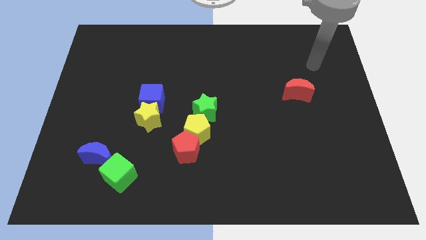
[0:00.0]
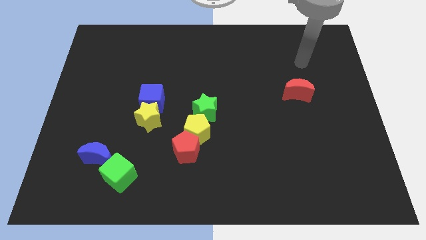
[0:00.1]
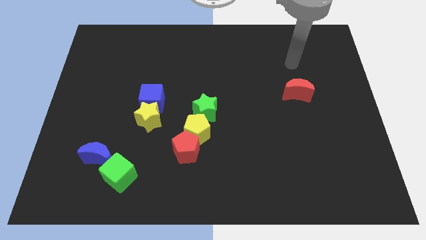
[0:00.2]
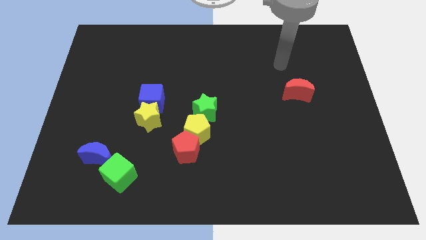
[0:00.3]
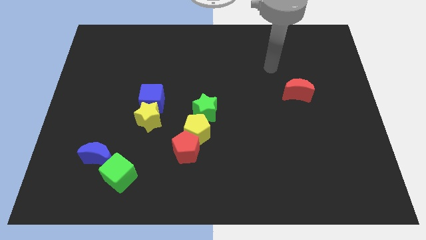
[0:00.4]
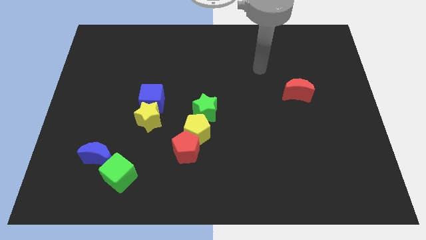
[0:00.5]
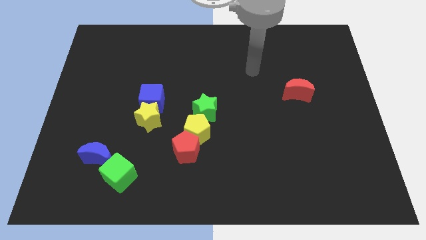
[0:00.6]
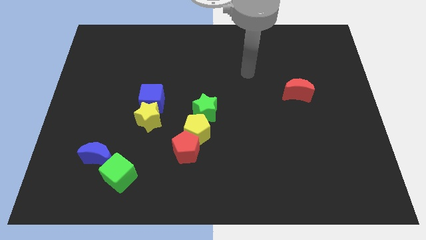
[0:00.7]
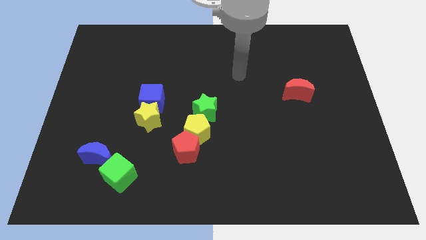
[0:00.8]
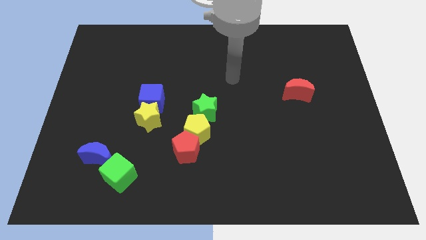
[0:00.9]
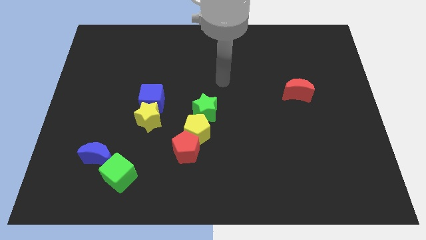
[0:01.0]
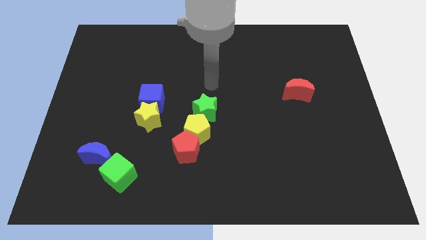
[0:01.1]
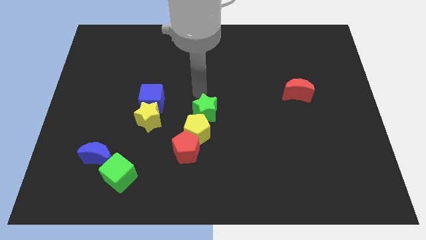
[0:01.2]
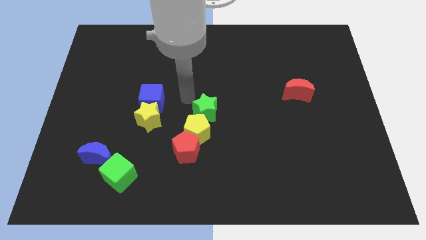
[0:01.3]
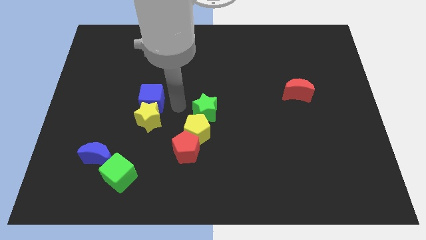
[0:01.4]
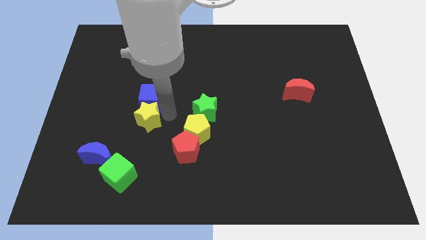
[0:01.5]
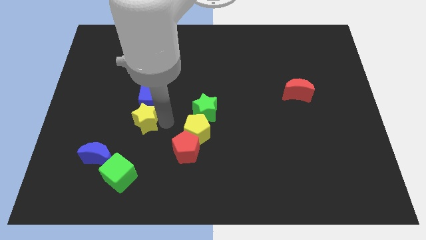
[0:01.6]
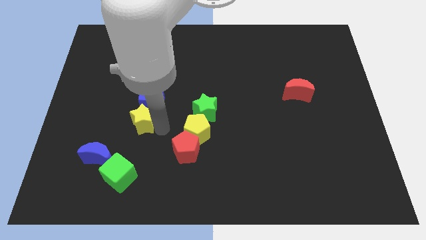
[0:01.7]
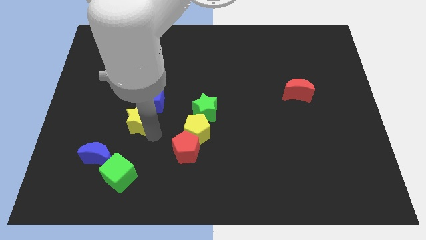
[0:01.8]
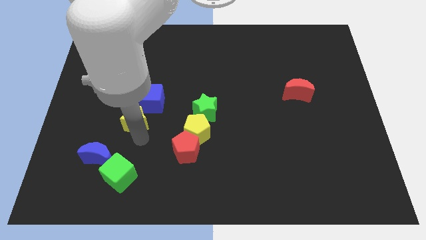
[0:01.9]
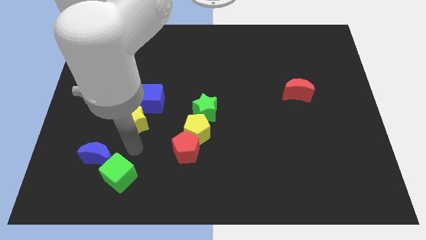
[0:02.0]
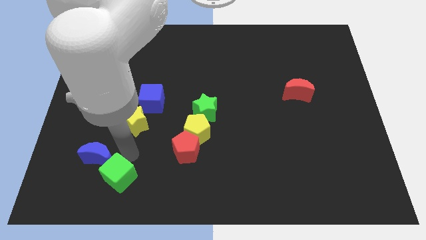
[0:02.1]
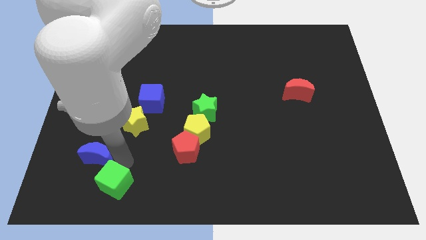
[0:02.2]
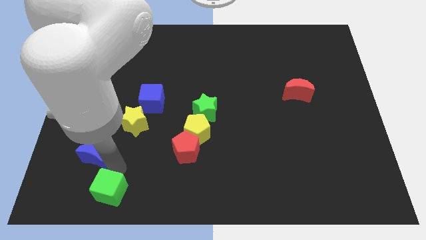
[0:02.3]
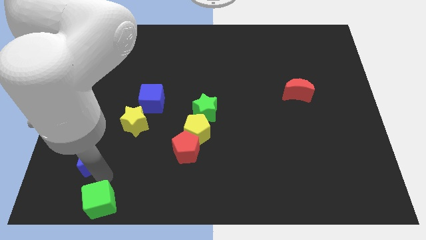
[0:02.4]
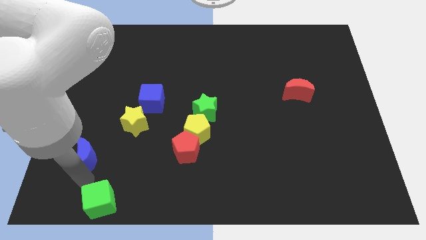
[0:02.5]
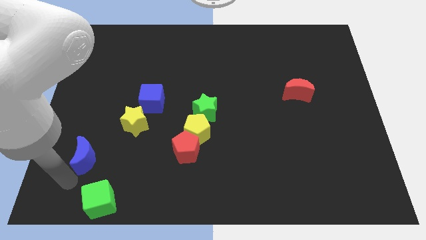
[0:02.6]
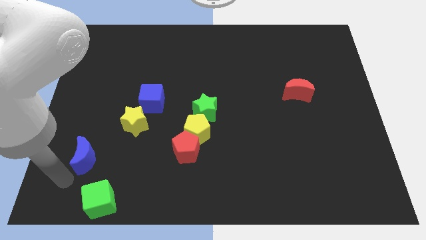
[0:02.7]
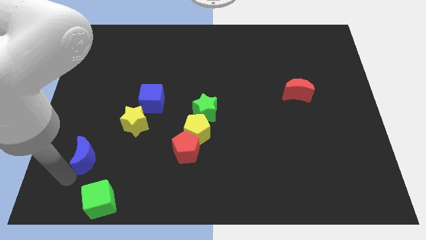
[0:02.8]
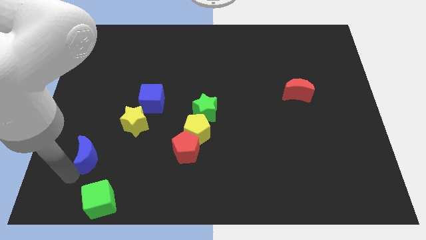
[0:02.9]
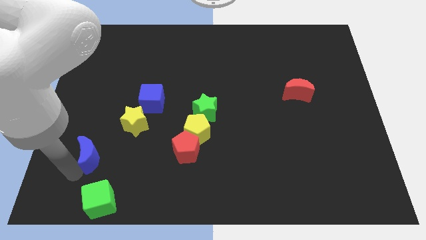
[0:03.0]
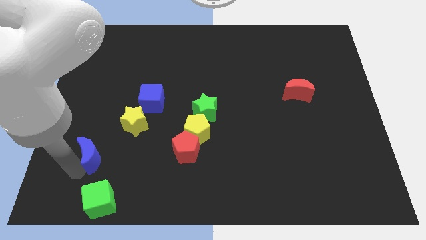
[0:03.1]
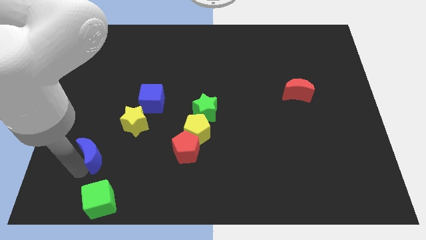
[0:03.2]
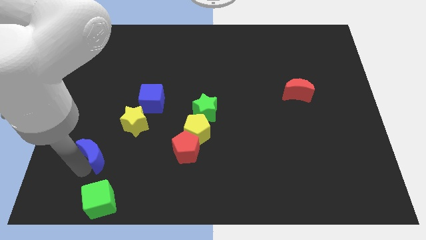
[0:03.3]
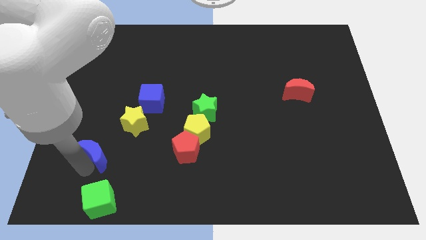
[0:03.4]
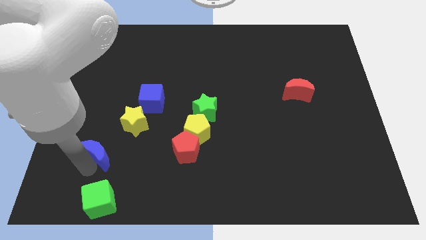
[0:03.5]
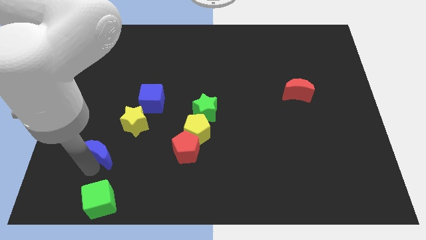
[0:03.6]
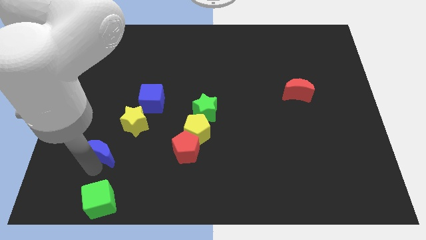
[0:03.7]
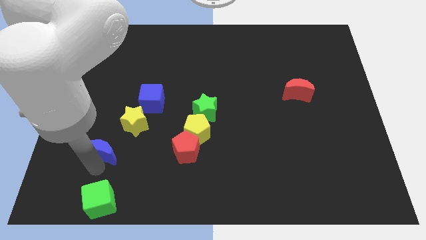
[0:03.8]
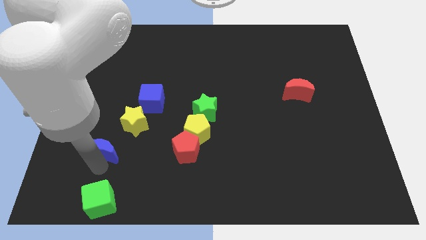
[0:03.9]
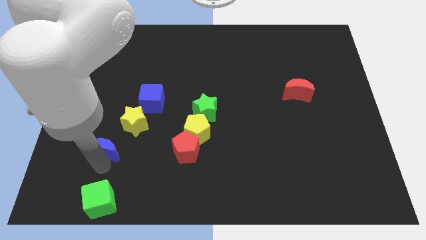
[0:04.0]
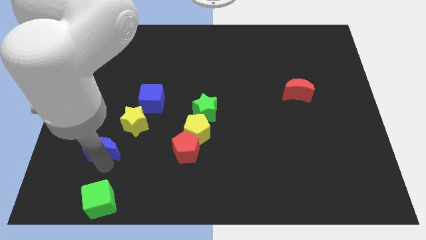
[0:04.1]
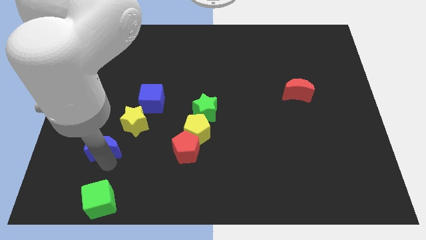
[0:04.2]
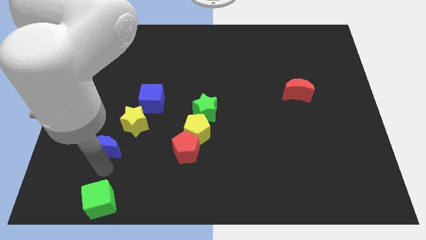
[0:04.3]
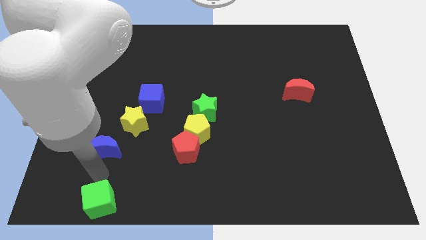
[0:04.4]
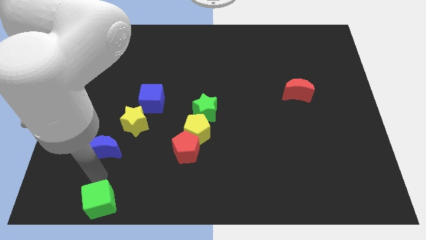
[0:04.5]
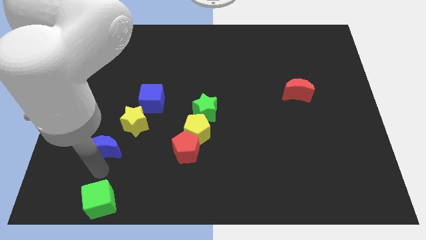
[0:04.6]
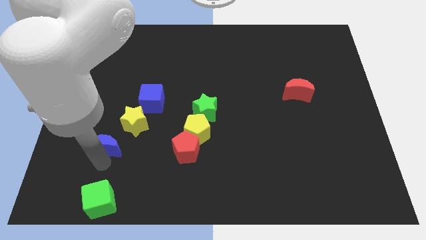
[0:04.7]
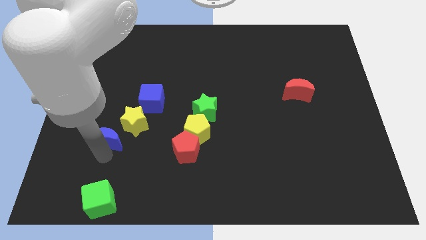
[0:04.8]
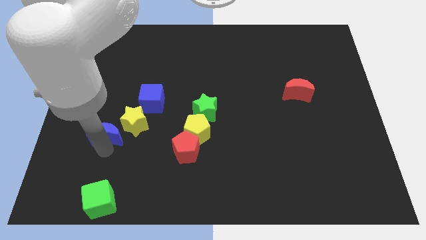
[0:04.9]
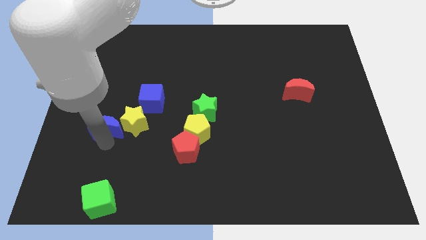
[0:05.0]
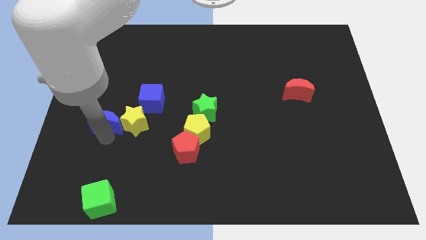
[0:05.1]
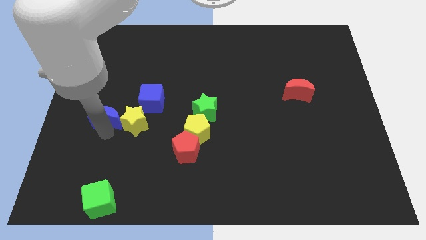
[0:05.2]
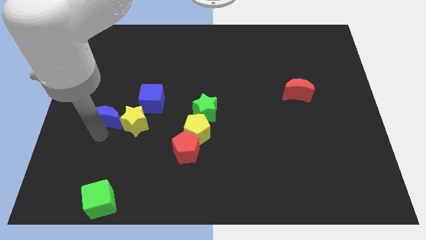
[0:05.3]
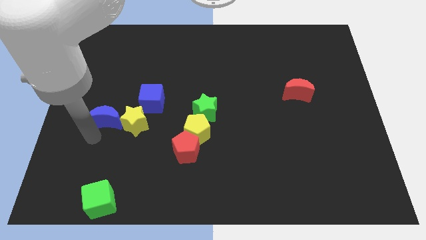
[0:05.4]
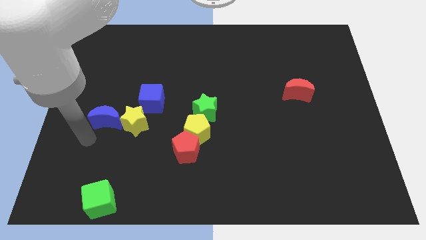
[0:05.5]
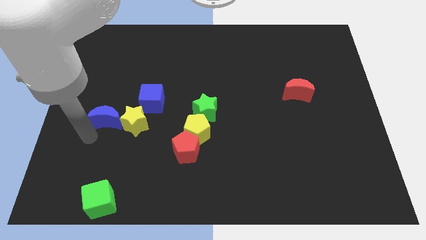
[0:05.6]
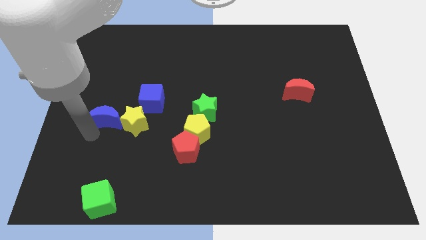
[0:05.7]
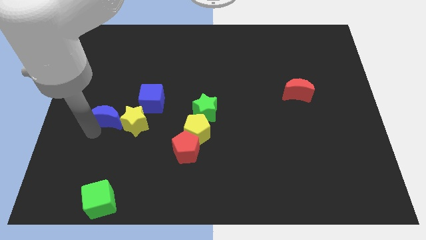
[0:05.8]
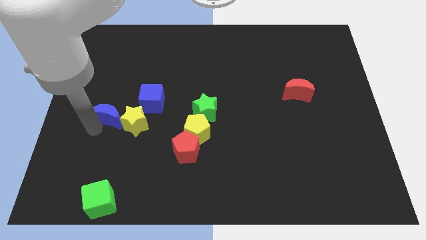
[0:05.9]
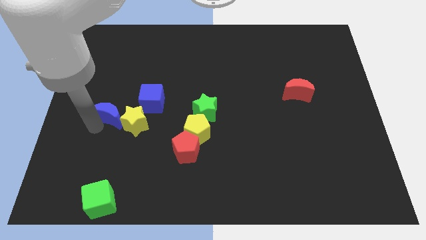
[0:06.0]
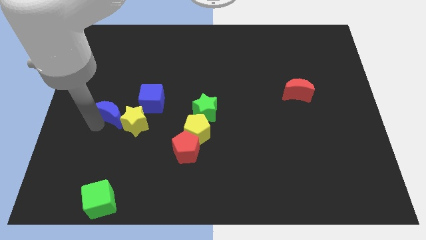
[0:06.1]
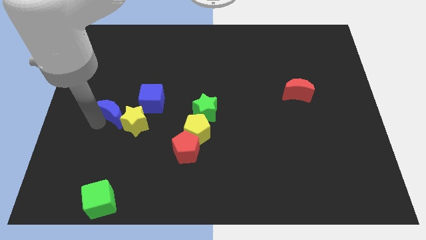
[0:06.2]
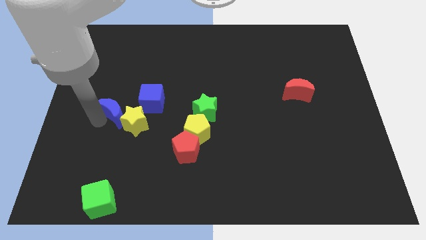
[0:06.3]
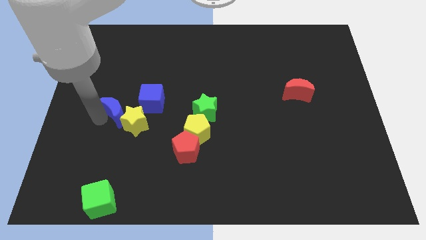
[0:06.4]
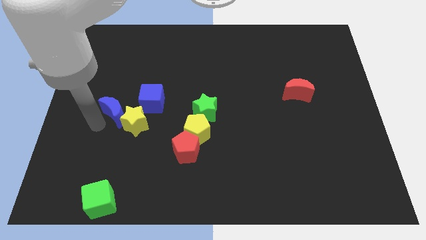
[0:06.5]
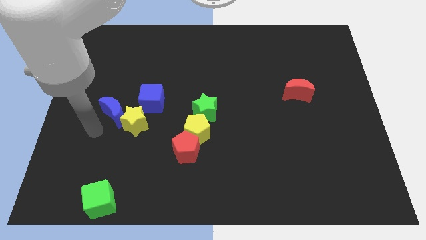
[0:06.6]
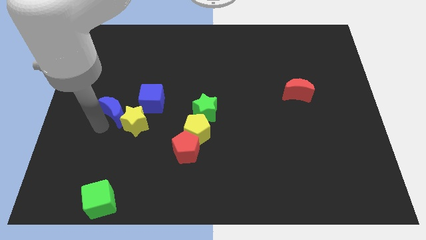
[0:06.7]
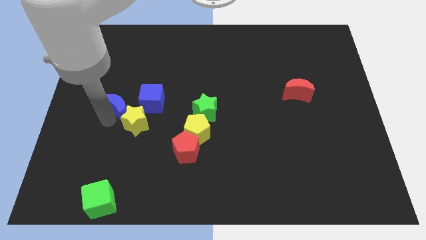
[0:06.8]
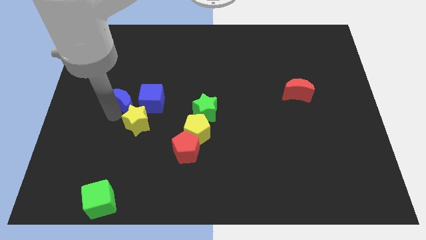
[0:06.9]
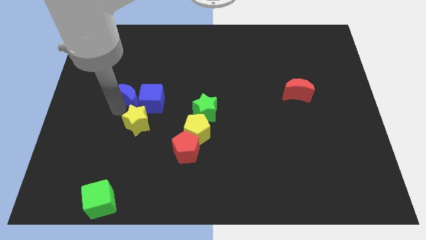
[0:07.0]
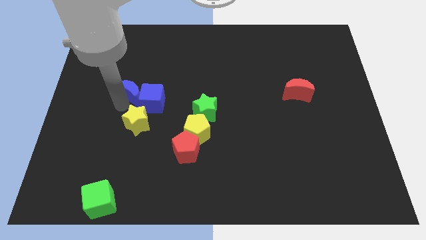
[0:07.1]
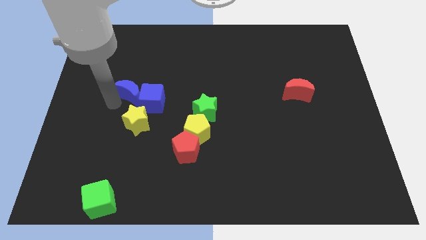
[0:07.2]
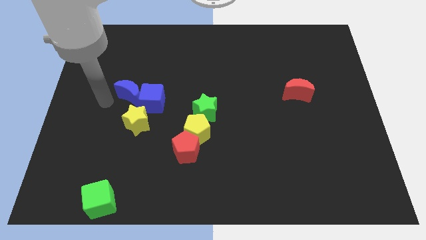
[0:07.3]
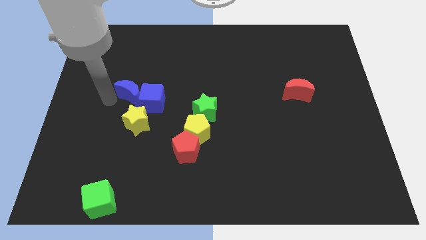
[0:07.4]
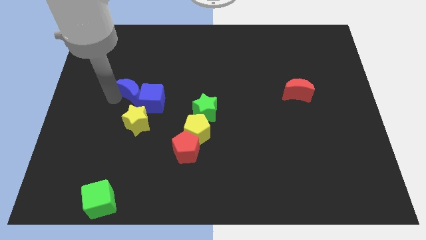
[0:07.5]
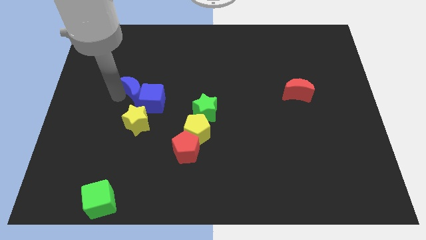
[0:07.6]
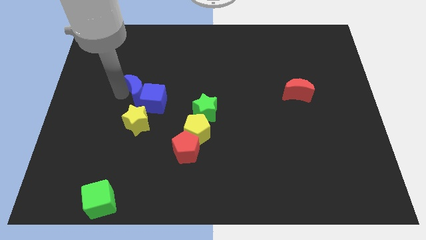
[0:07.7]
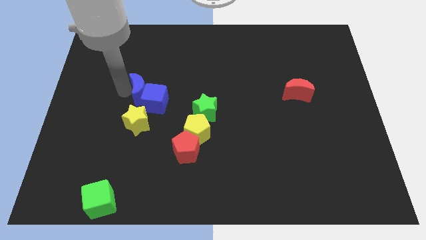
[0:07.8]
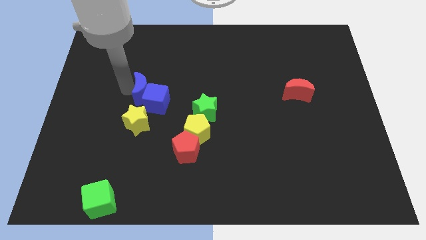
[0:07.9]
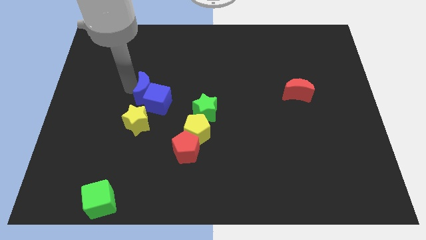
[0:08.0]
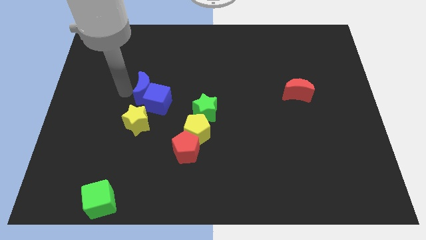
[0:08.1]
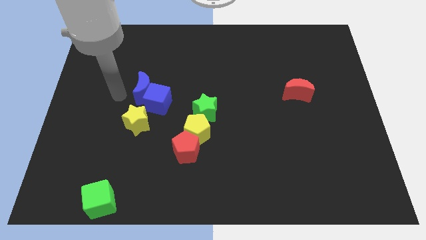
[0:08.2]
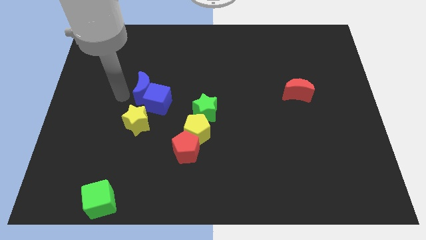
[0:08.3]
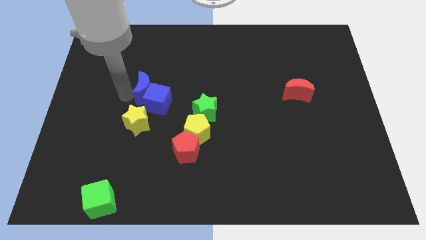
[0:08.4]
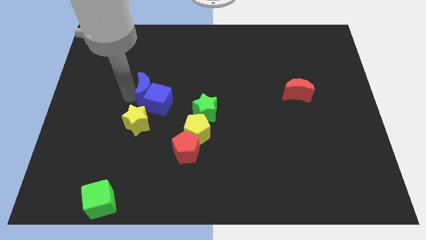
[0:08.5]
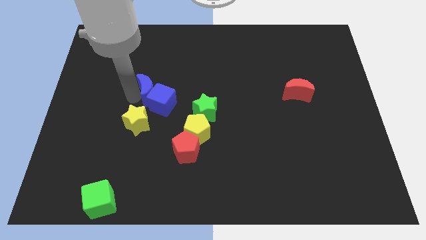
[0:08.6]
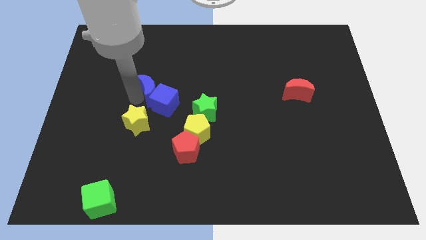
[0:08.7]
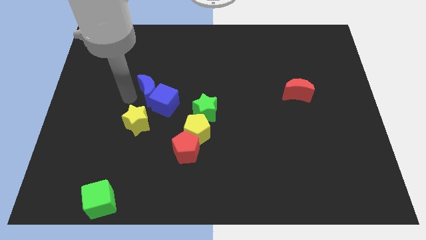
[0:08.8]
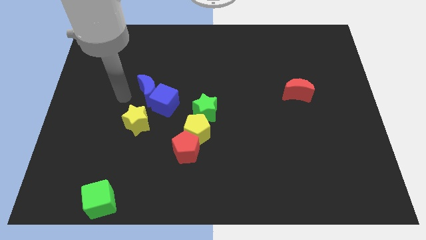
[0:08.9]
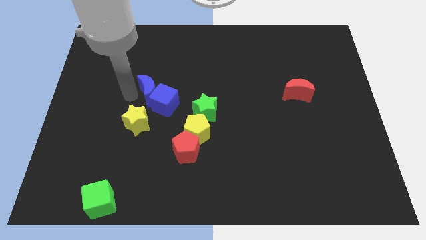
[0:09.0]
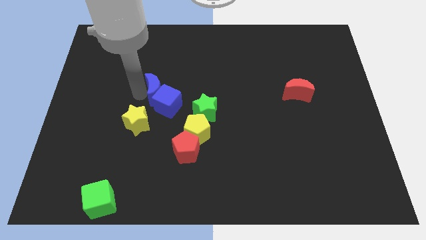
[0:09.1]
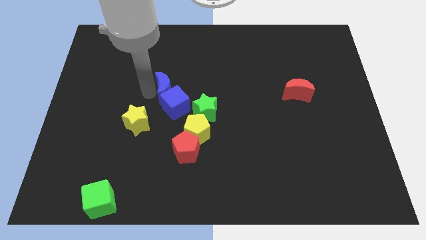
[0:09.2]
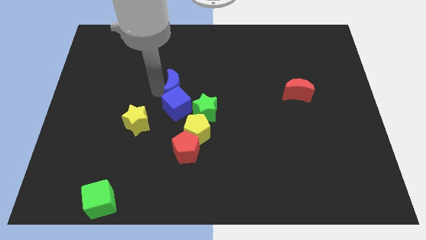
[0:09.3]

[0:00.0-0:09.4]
move the blue moon diagonally up and to the right of the blue cube
